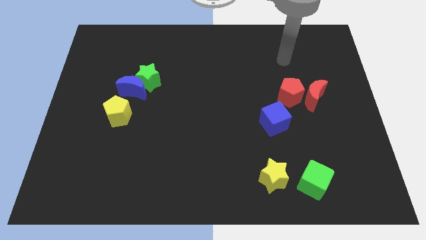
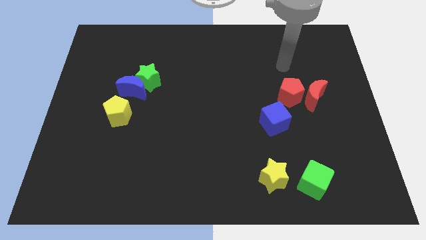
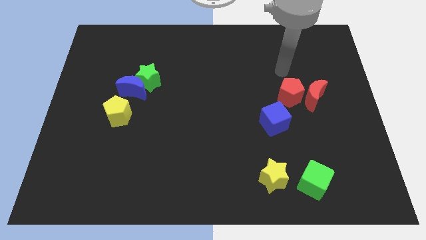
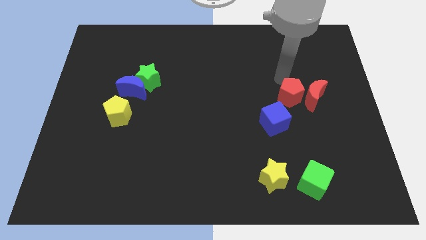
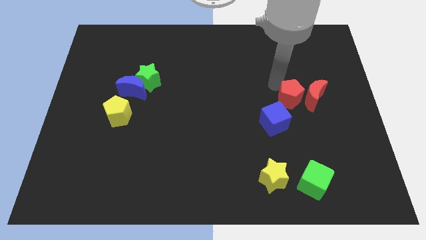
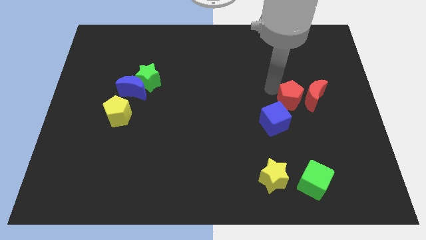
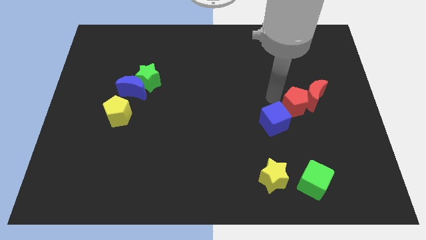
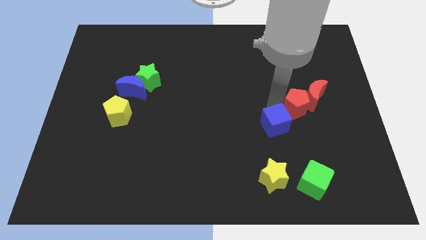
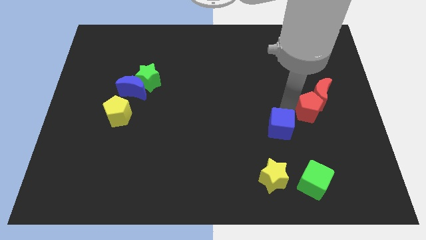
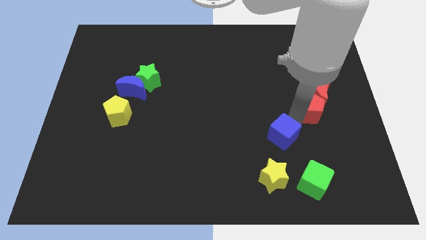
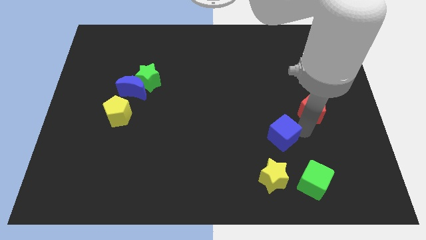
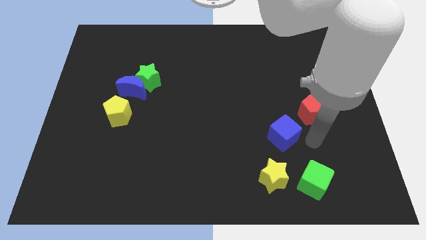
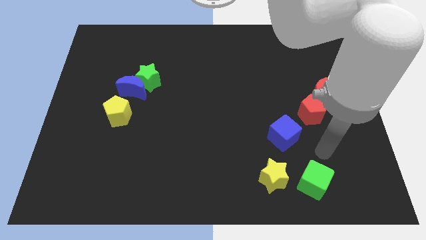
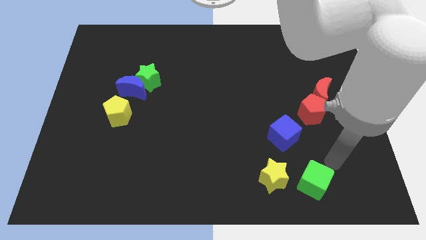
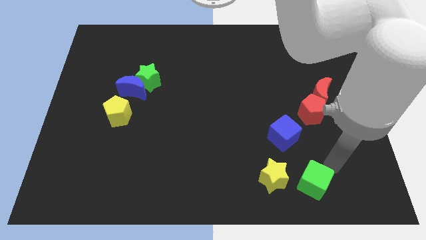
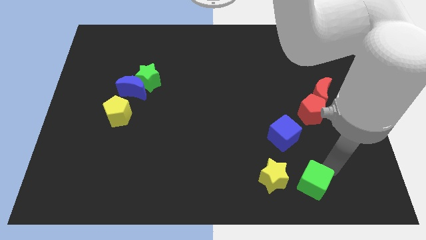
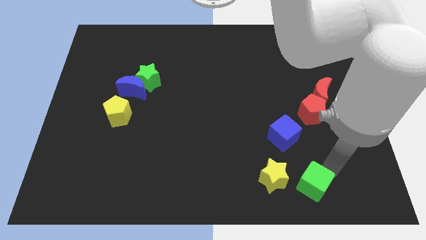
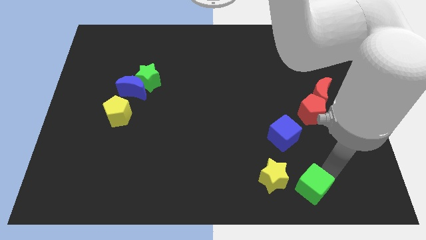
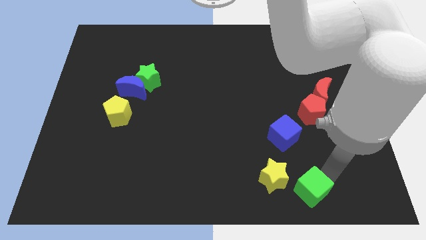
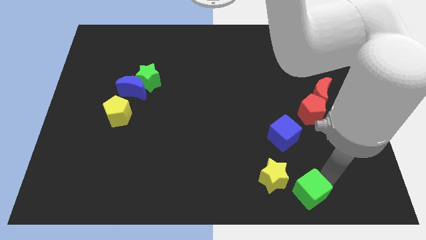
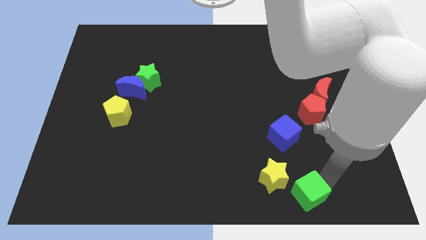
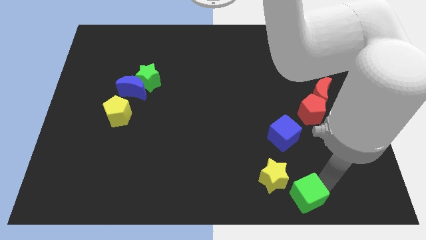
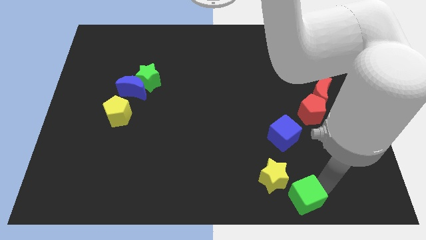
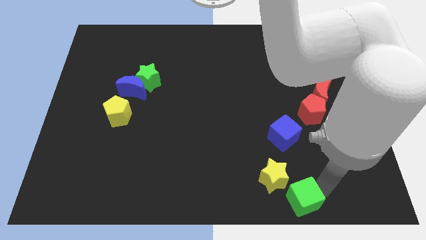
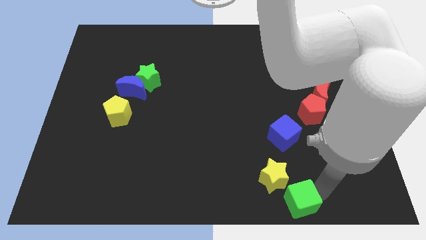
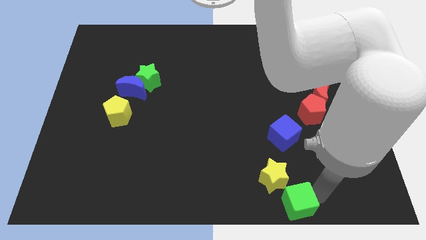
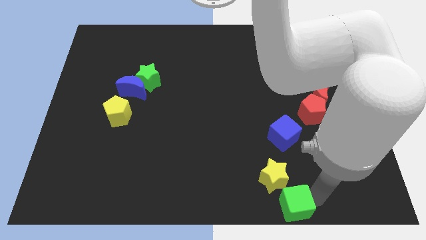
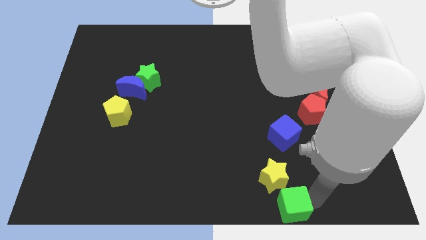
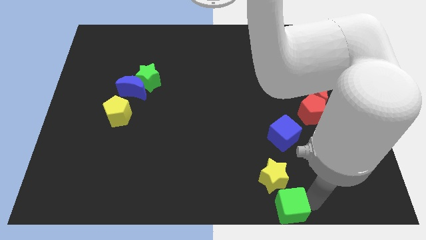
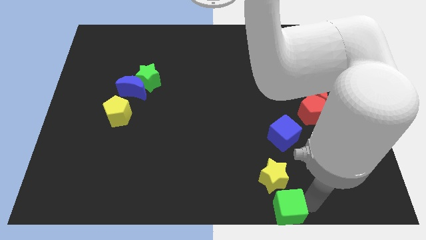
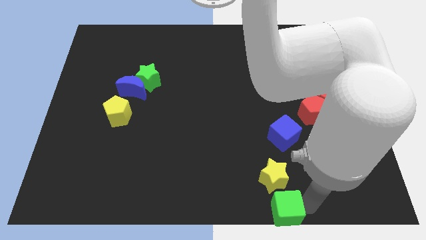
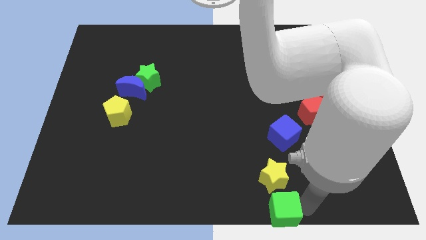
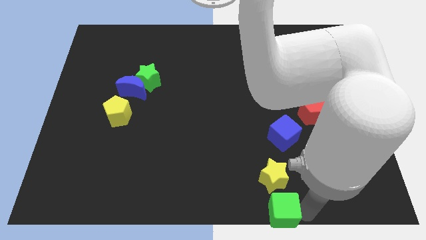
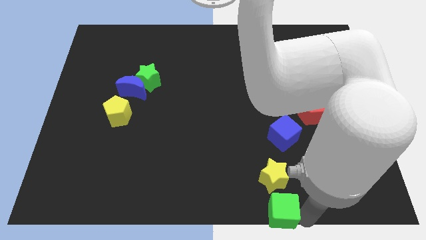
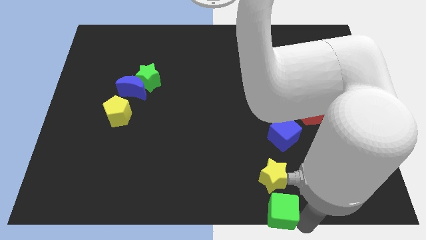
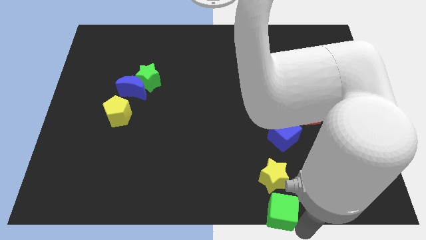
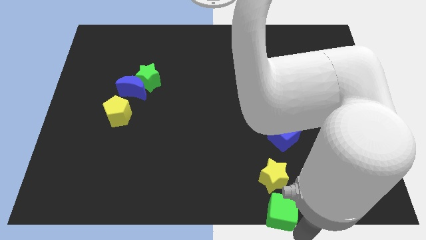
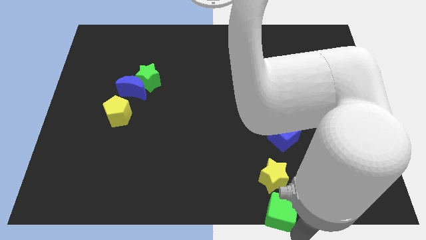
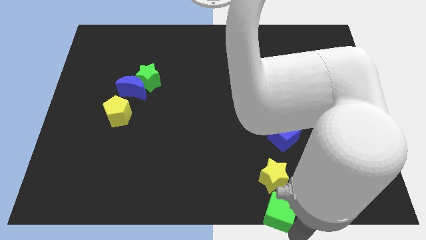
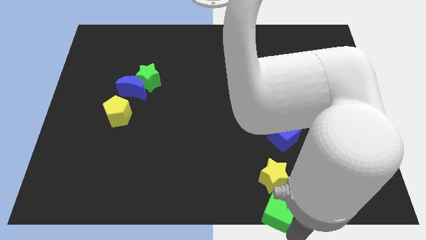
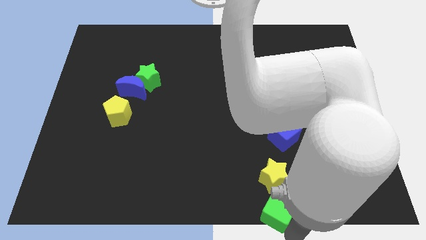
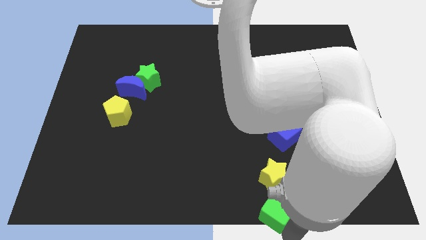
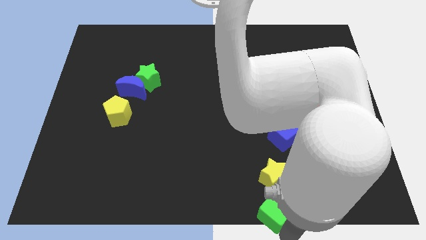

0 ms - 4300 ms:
slightly slide the green cube to the left

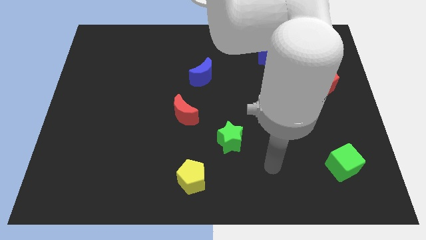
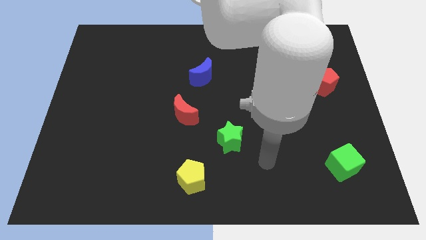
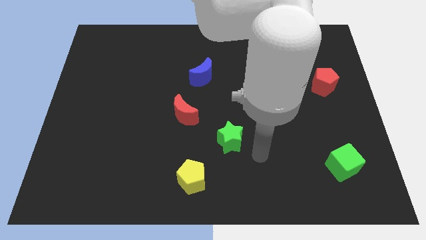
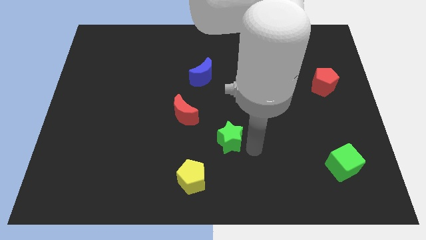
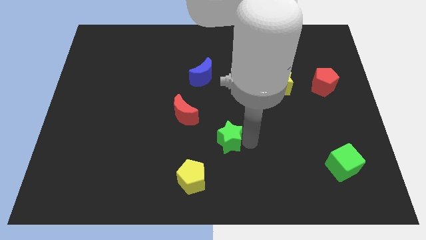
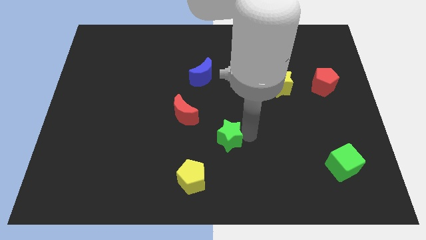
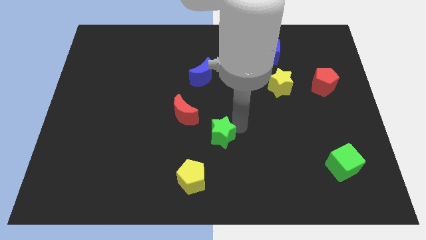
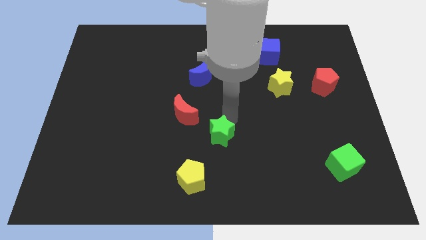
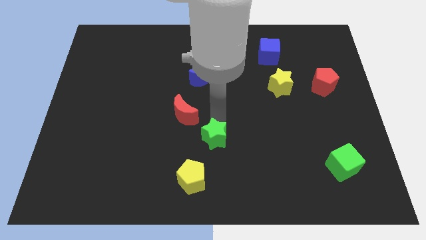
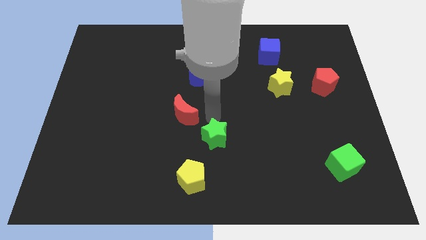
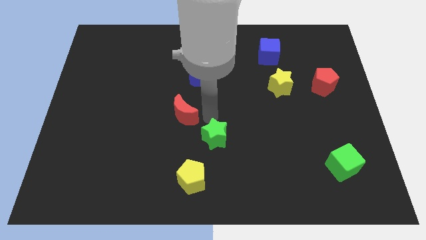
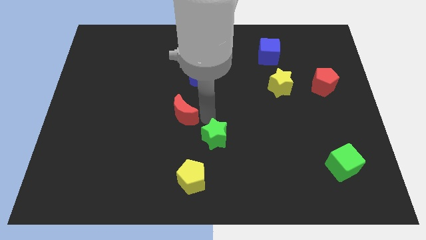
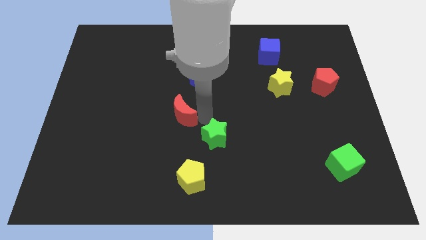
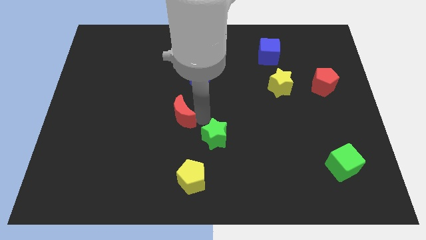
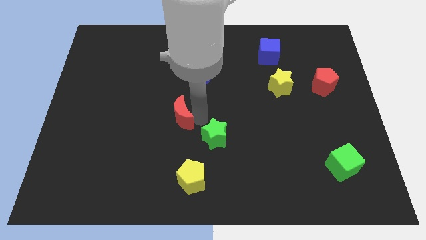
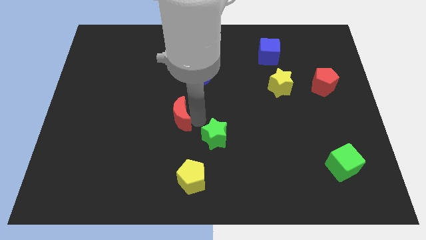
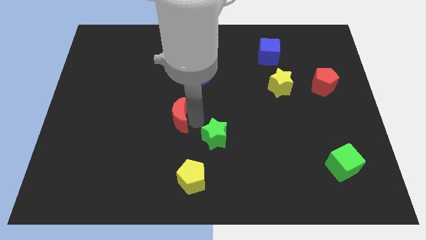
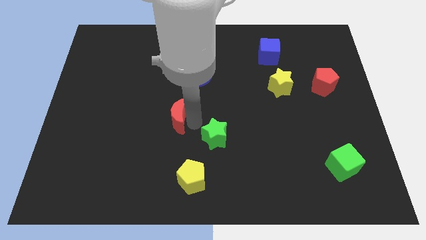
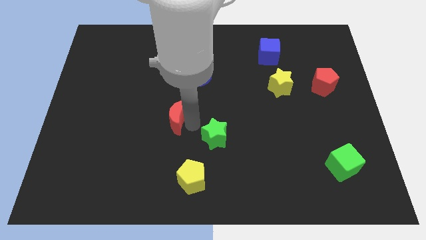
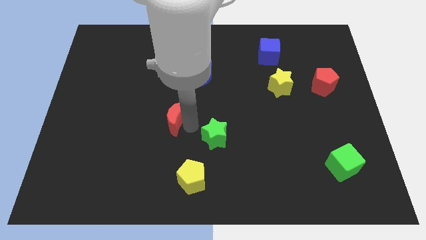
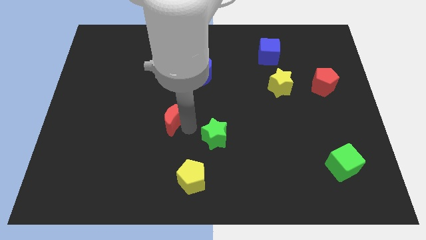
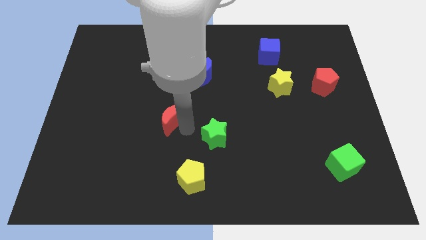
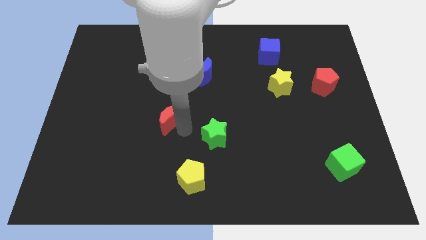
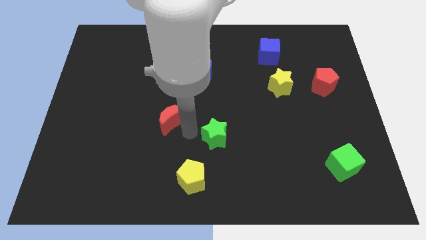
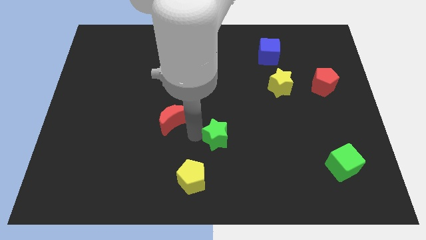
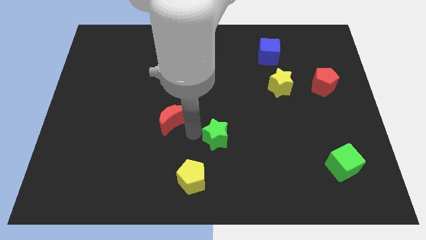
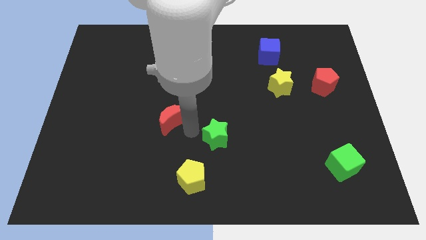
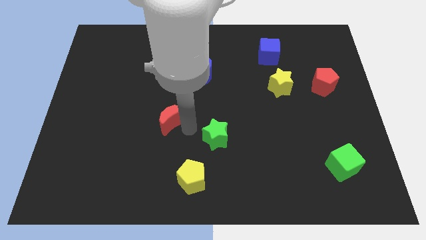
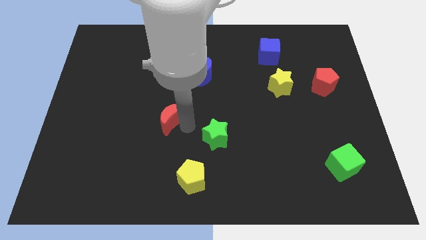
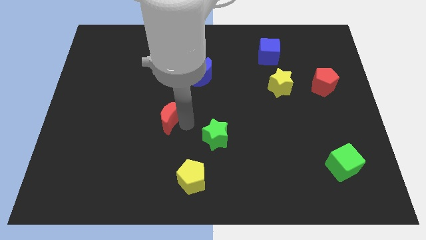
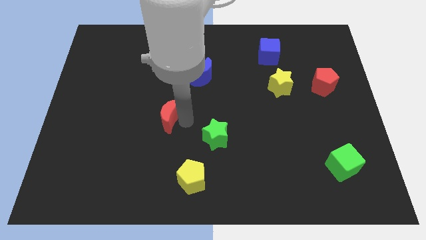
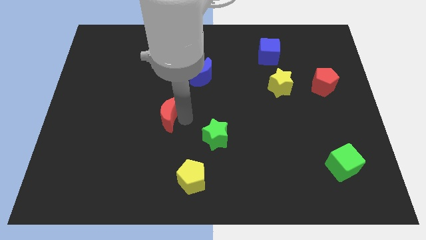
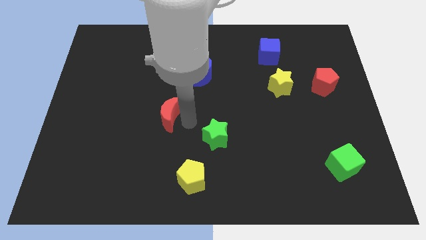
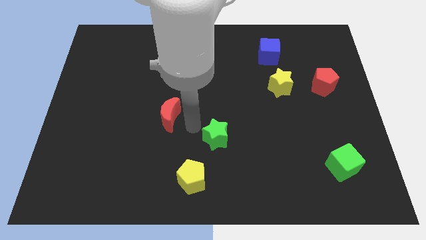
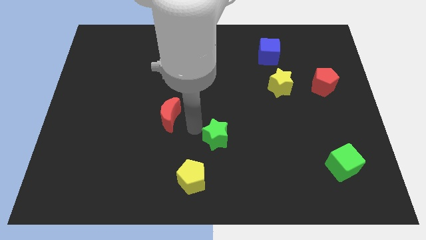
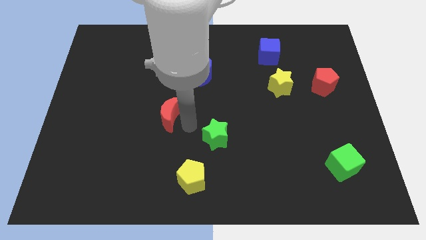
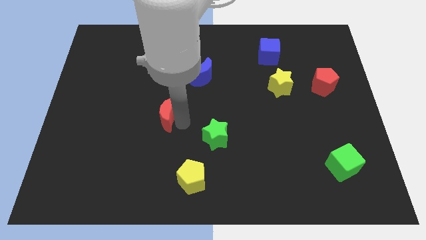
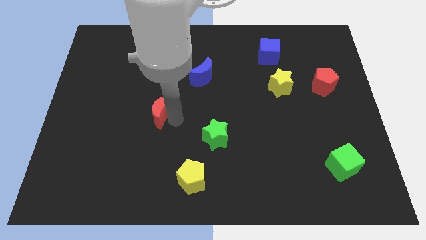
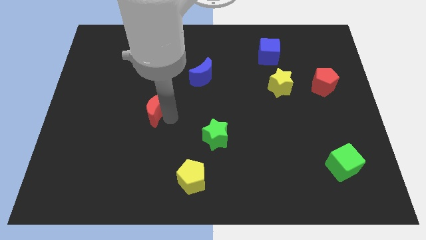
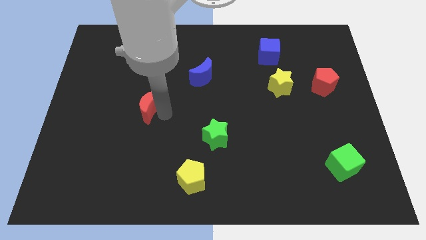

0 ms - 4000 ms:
move the red moon to the left a little
